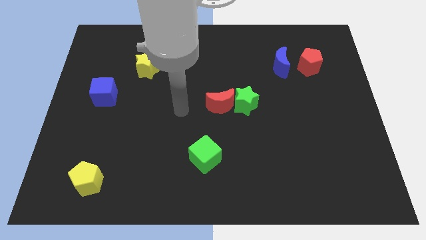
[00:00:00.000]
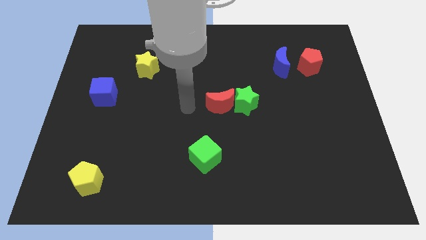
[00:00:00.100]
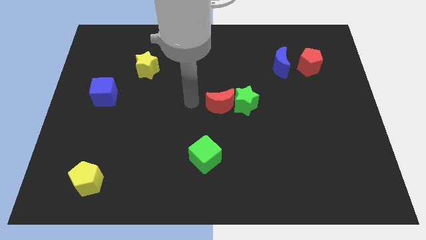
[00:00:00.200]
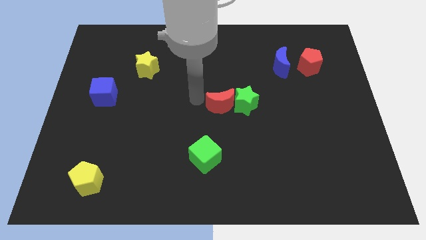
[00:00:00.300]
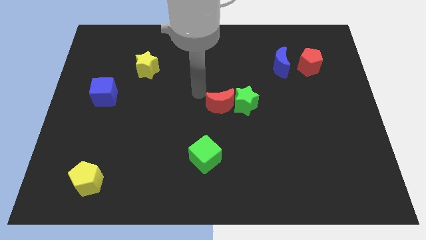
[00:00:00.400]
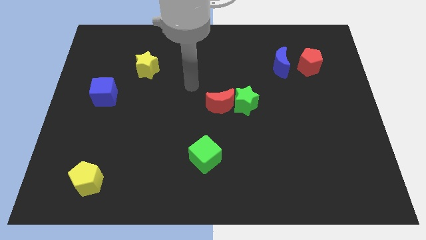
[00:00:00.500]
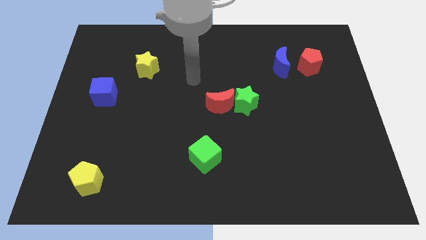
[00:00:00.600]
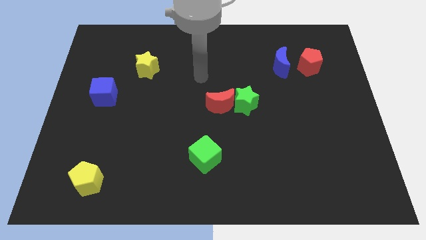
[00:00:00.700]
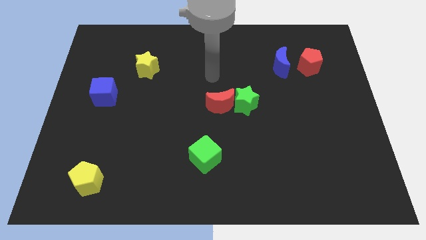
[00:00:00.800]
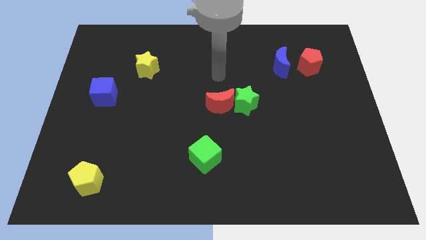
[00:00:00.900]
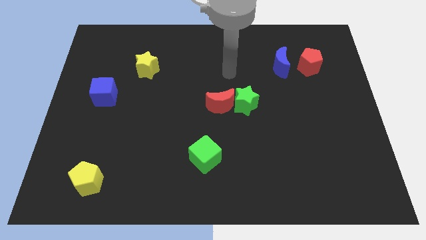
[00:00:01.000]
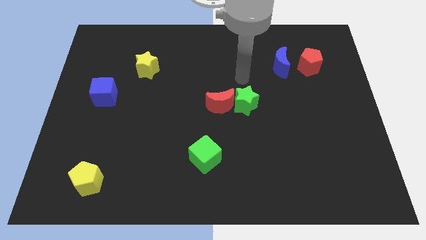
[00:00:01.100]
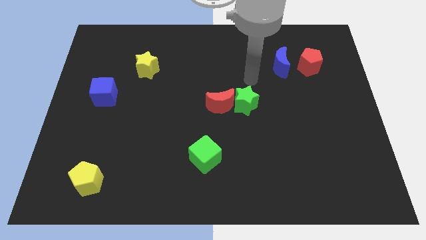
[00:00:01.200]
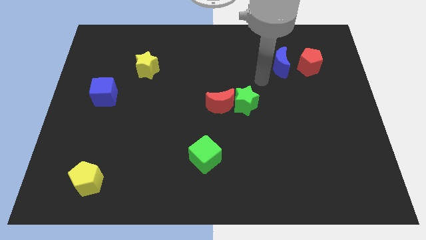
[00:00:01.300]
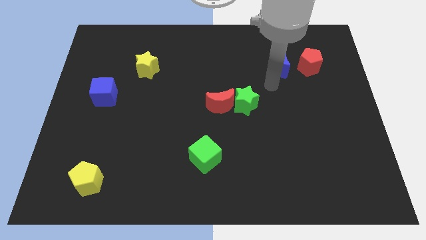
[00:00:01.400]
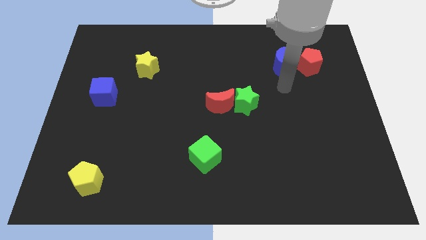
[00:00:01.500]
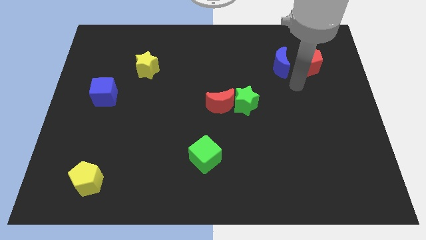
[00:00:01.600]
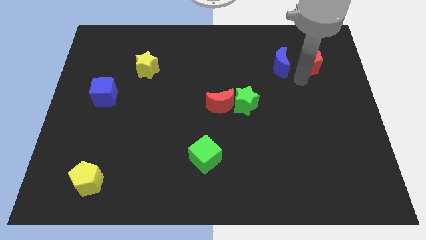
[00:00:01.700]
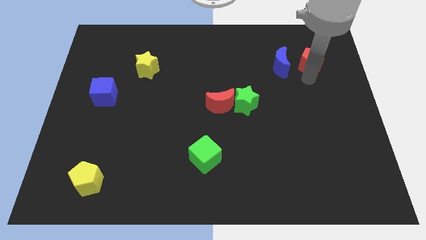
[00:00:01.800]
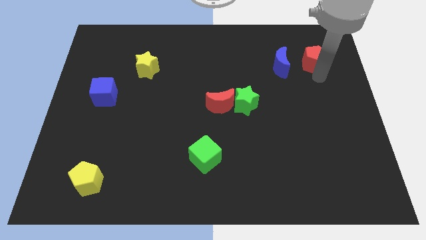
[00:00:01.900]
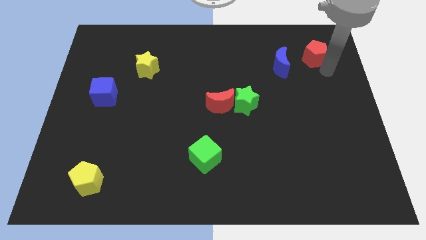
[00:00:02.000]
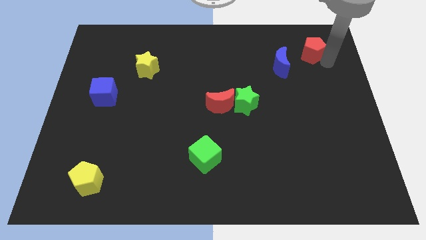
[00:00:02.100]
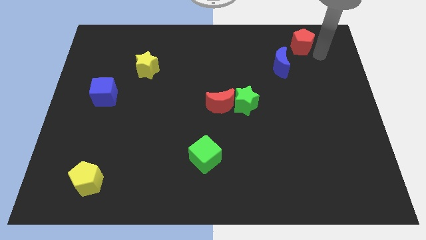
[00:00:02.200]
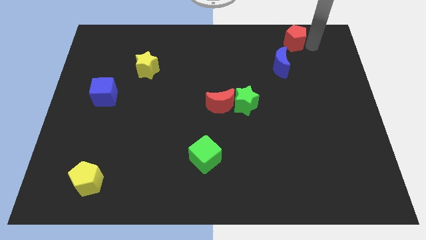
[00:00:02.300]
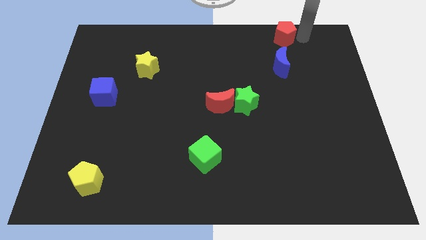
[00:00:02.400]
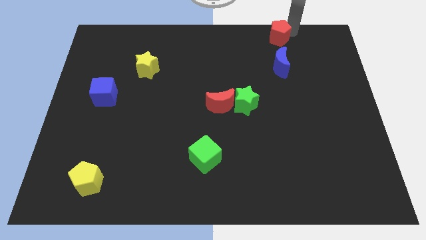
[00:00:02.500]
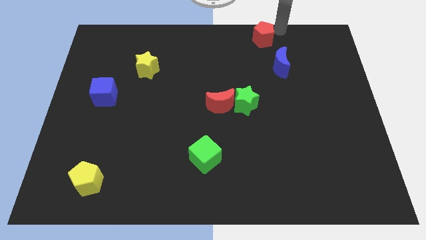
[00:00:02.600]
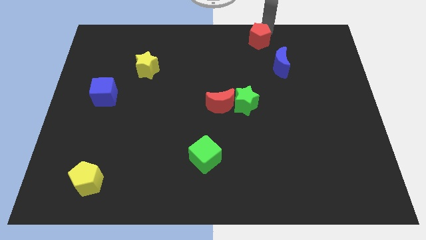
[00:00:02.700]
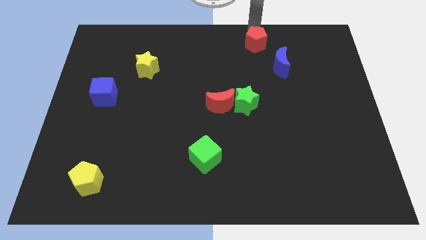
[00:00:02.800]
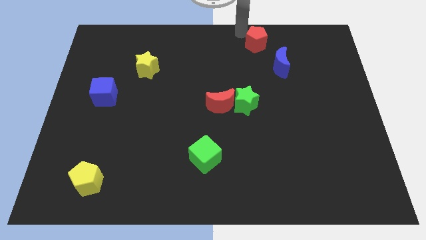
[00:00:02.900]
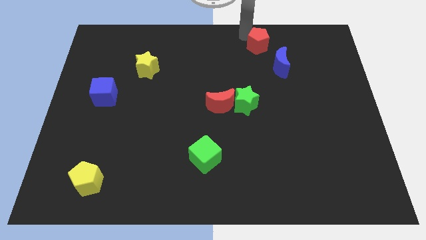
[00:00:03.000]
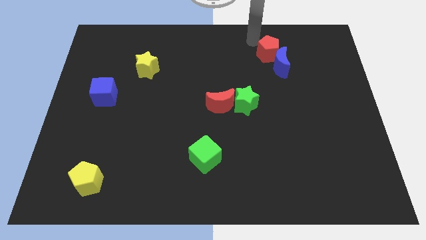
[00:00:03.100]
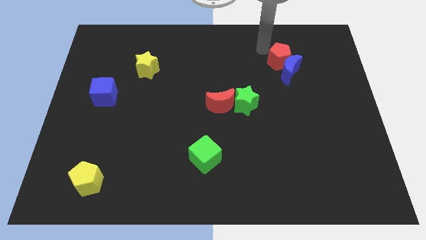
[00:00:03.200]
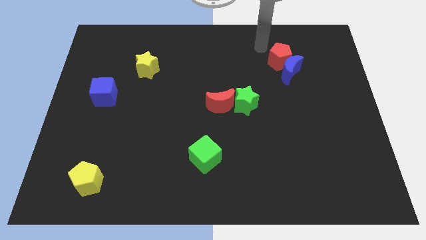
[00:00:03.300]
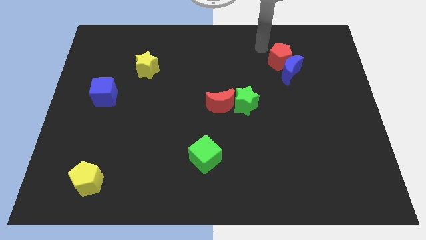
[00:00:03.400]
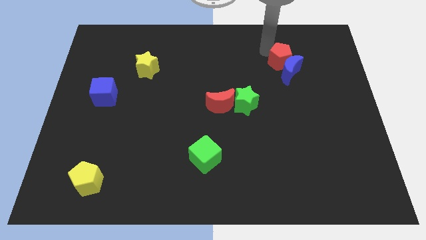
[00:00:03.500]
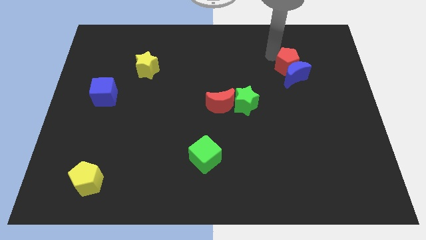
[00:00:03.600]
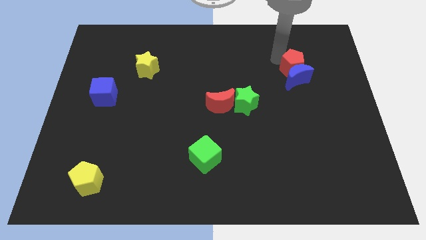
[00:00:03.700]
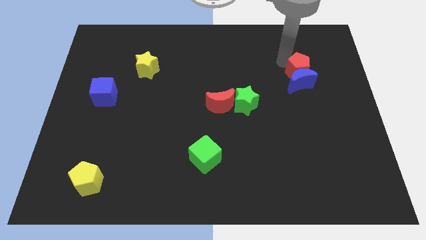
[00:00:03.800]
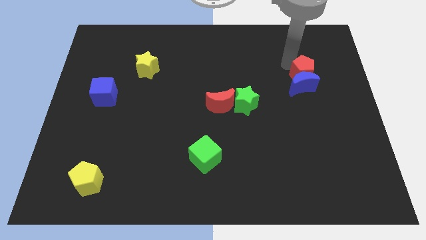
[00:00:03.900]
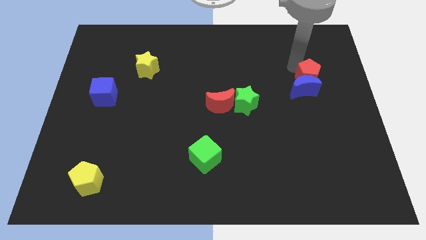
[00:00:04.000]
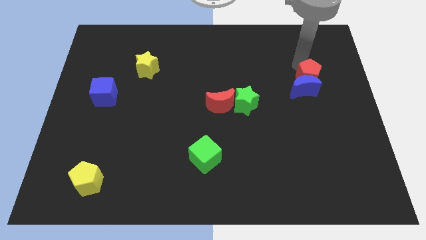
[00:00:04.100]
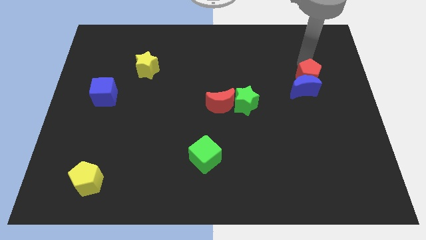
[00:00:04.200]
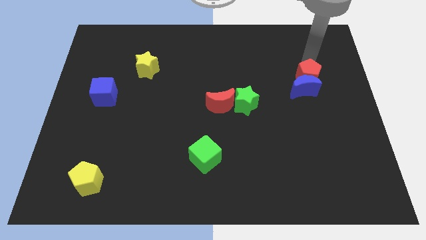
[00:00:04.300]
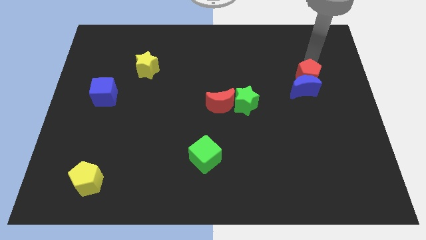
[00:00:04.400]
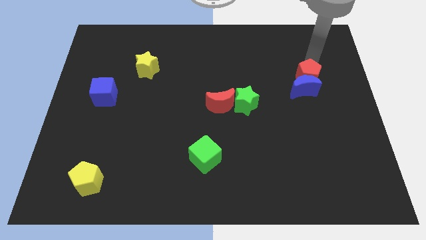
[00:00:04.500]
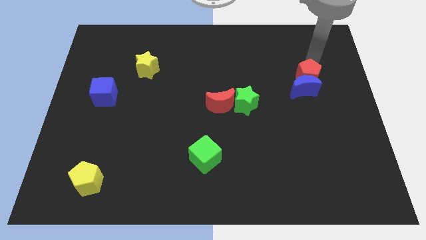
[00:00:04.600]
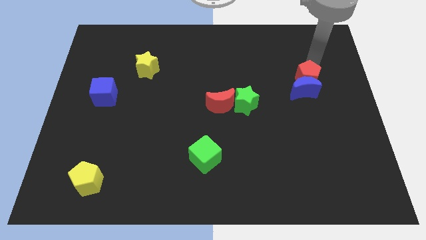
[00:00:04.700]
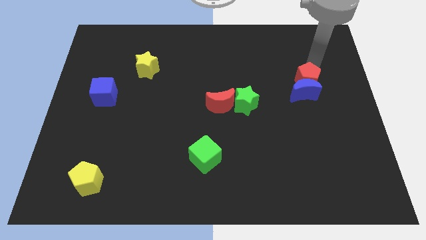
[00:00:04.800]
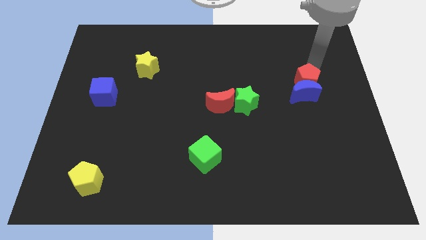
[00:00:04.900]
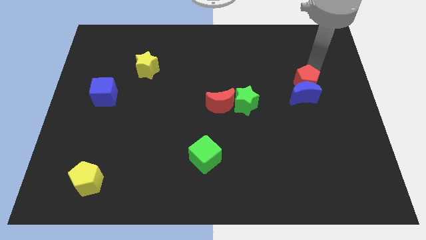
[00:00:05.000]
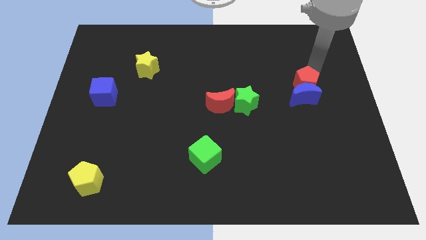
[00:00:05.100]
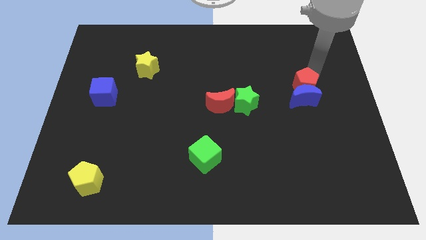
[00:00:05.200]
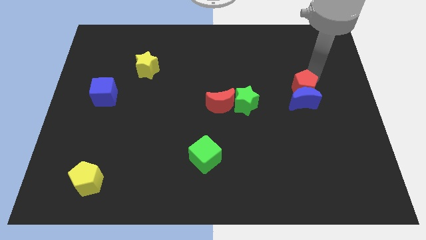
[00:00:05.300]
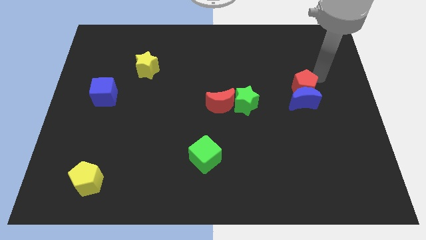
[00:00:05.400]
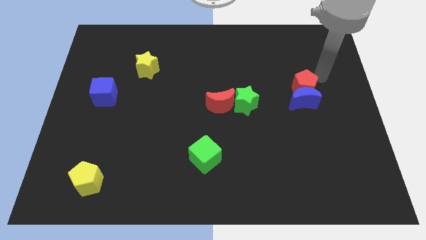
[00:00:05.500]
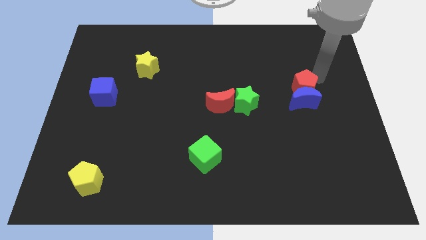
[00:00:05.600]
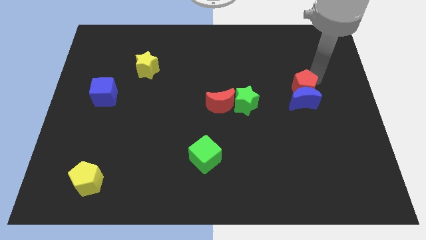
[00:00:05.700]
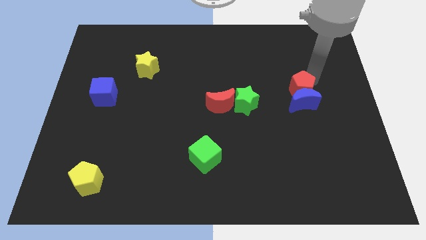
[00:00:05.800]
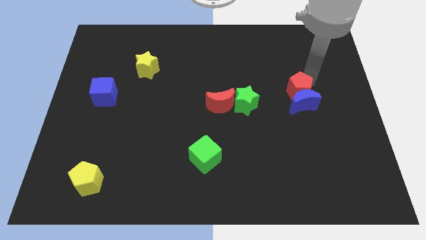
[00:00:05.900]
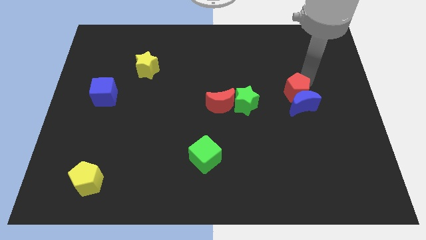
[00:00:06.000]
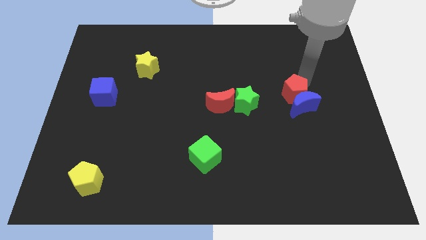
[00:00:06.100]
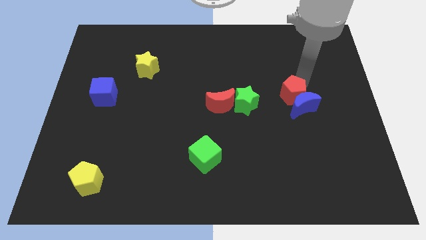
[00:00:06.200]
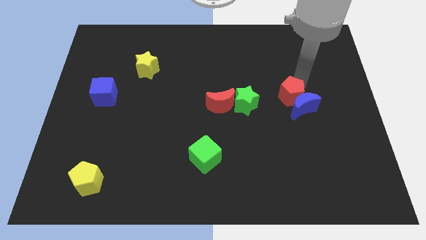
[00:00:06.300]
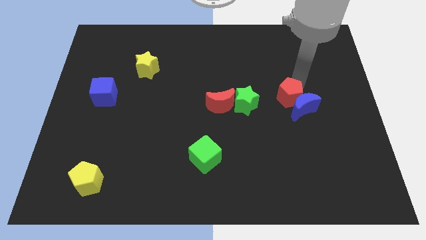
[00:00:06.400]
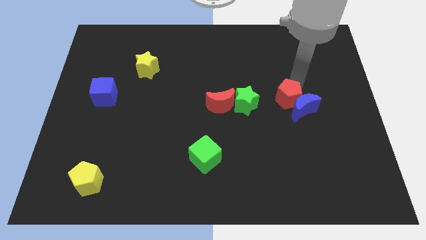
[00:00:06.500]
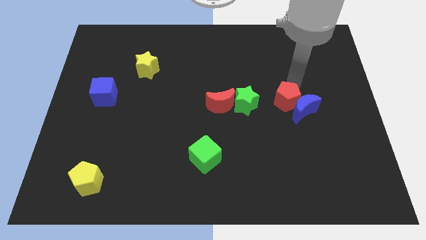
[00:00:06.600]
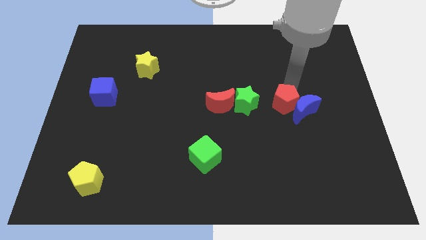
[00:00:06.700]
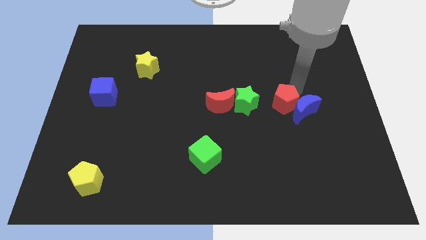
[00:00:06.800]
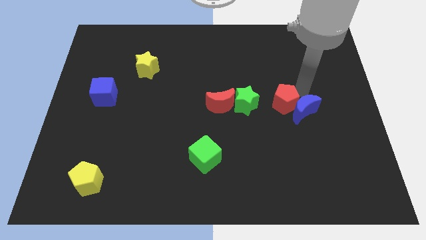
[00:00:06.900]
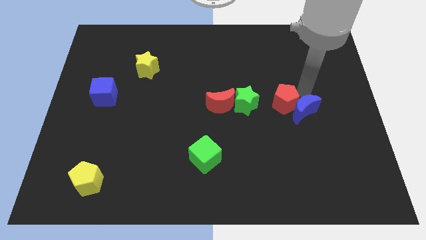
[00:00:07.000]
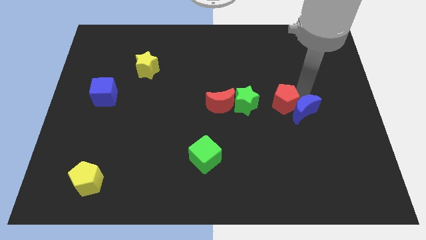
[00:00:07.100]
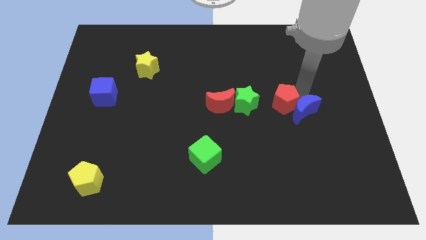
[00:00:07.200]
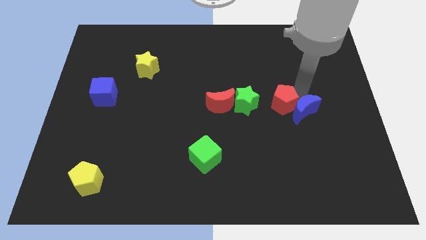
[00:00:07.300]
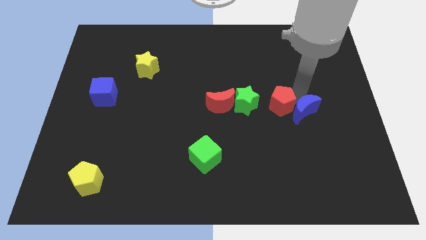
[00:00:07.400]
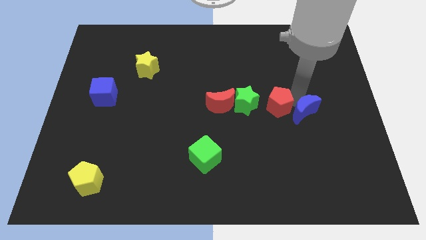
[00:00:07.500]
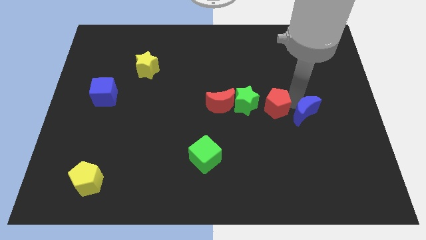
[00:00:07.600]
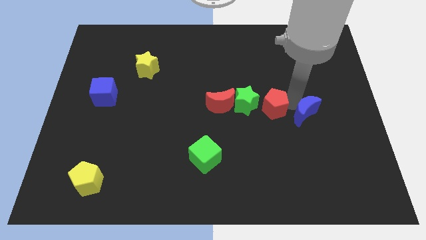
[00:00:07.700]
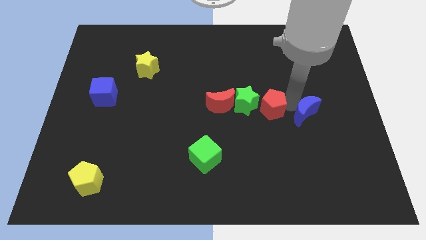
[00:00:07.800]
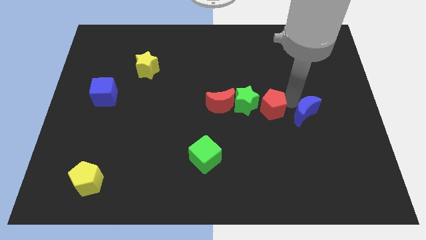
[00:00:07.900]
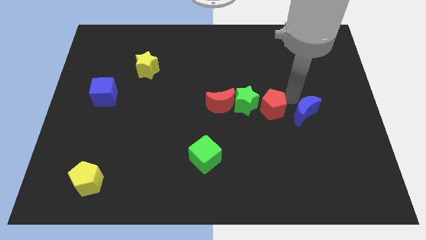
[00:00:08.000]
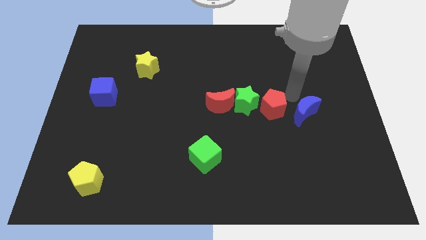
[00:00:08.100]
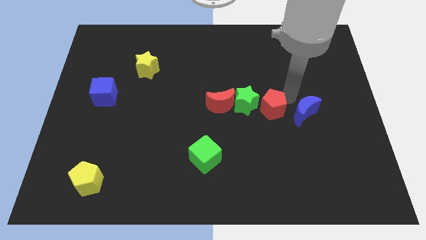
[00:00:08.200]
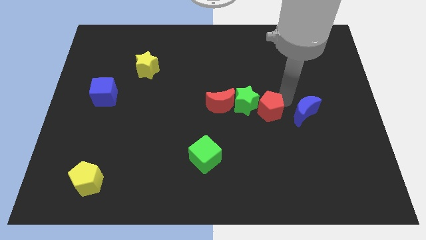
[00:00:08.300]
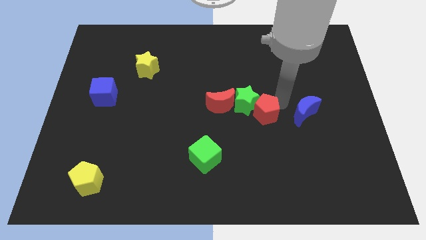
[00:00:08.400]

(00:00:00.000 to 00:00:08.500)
push the red pentagon diagonally down and left
